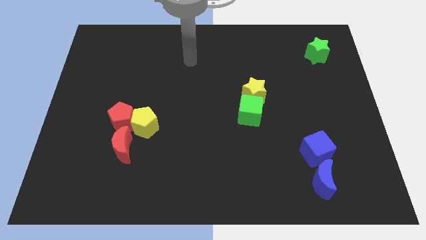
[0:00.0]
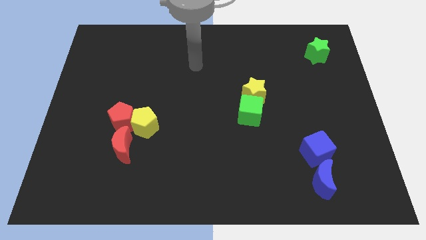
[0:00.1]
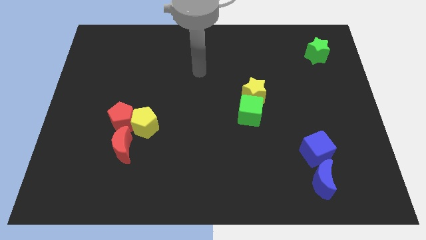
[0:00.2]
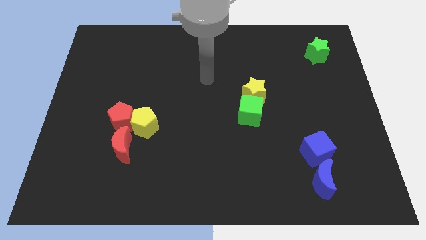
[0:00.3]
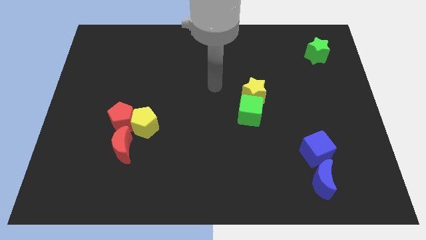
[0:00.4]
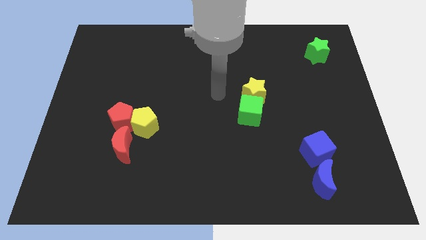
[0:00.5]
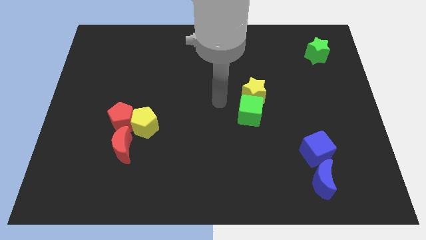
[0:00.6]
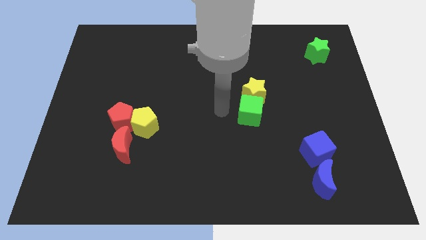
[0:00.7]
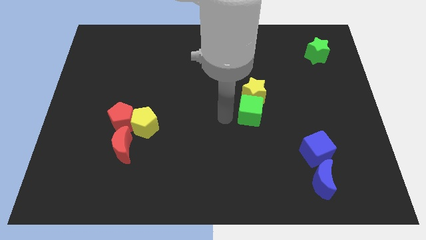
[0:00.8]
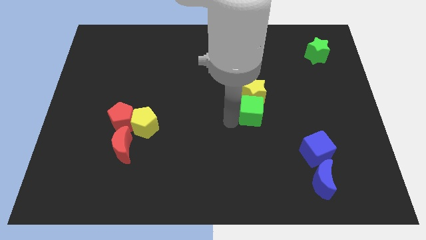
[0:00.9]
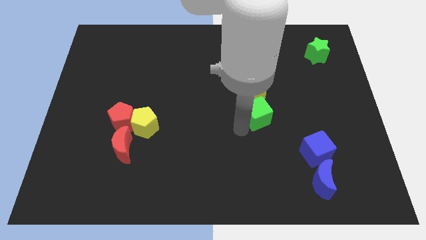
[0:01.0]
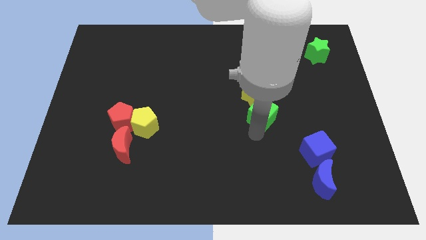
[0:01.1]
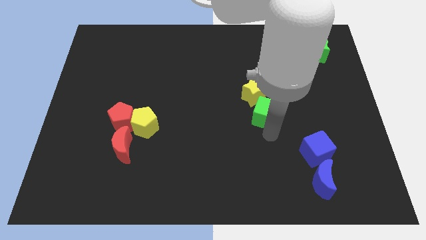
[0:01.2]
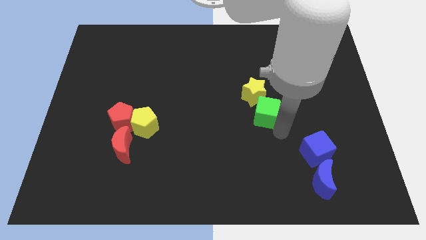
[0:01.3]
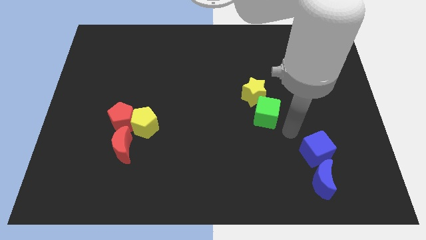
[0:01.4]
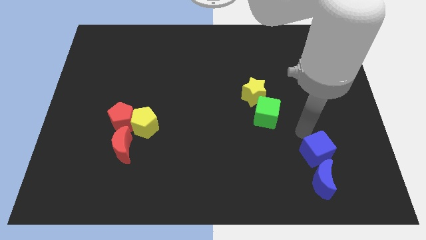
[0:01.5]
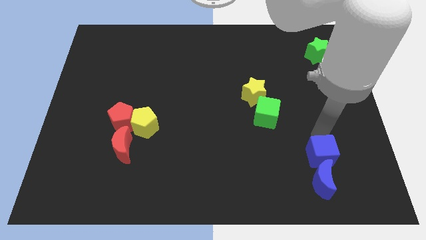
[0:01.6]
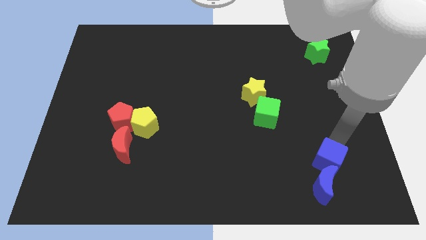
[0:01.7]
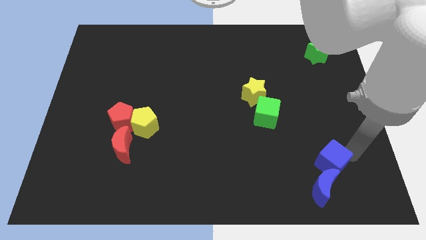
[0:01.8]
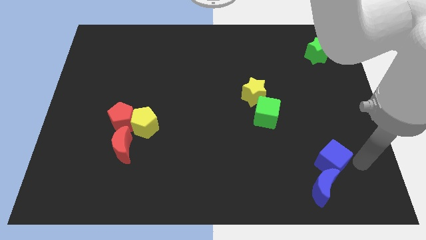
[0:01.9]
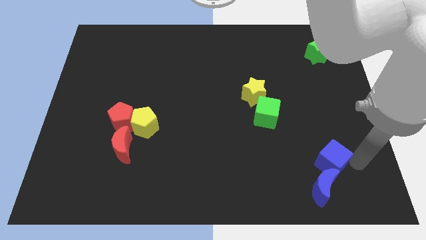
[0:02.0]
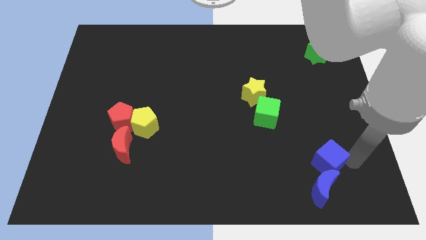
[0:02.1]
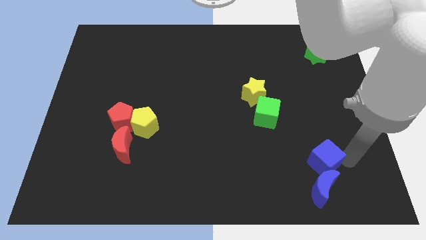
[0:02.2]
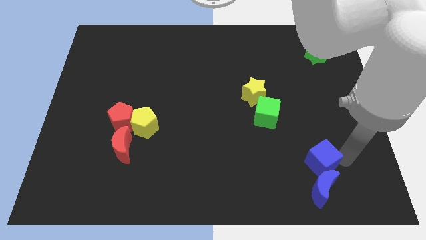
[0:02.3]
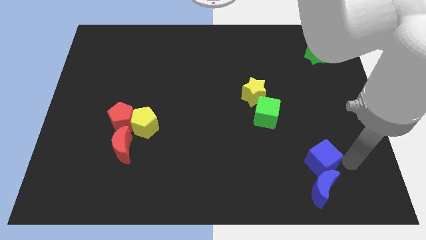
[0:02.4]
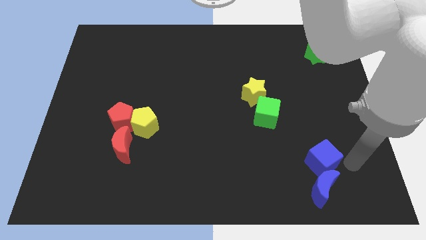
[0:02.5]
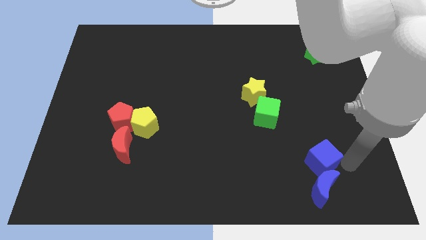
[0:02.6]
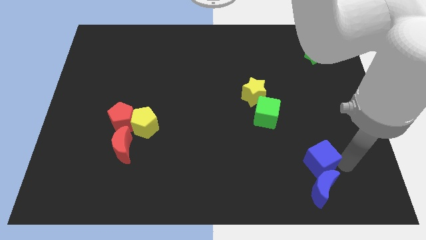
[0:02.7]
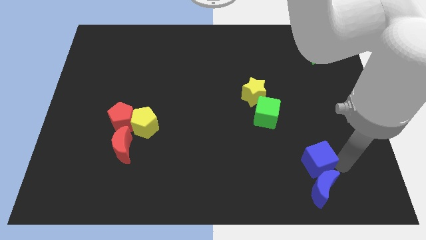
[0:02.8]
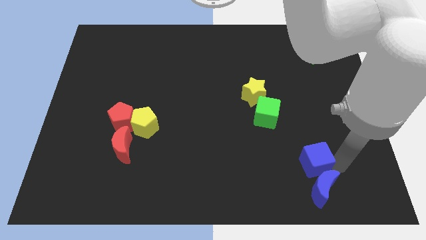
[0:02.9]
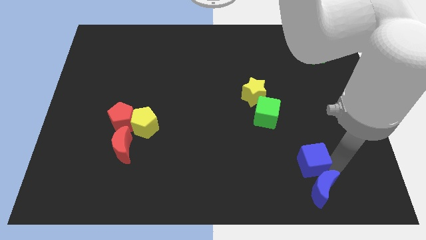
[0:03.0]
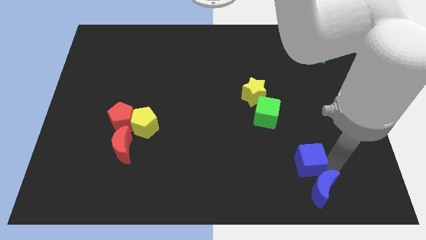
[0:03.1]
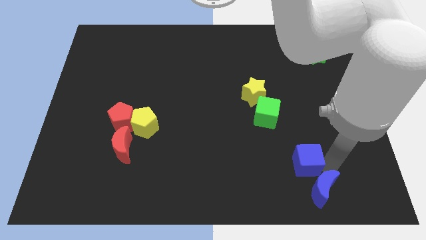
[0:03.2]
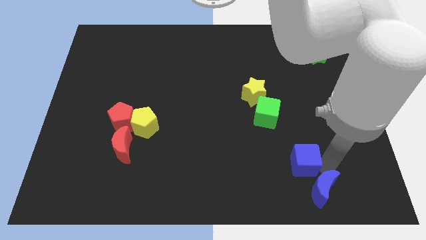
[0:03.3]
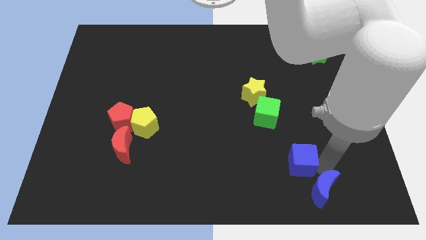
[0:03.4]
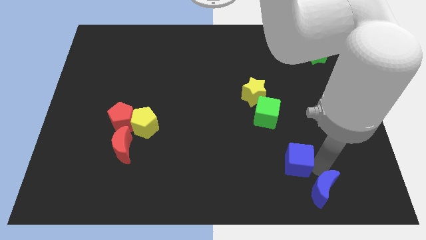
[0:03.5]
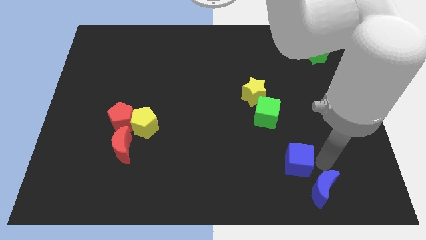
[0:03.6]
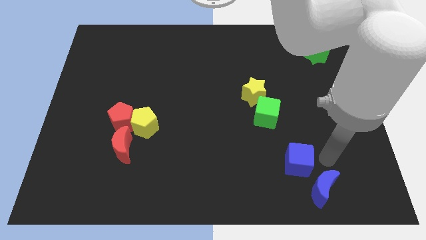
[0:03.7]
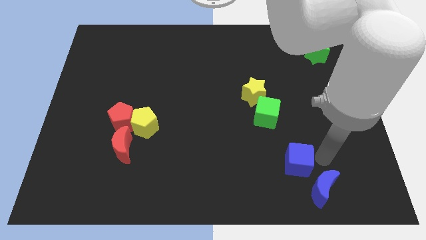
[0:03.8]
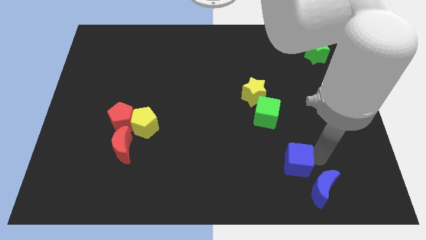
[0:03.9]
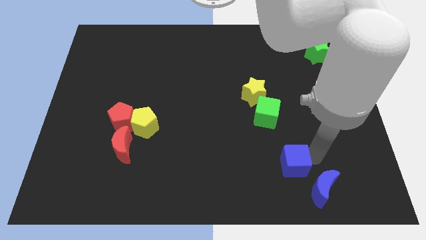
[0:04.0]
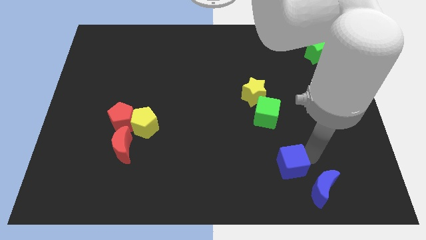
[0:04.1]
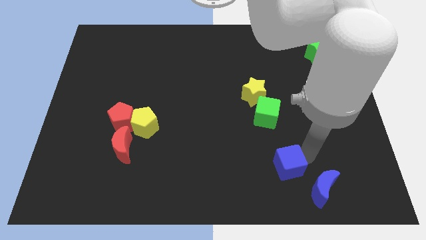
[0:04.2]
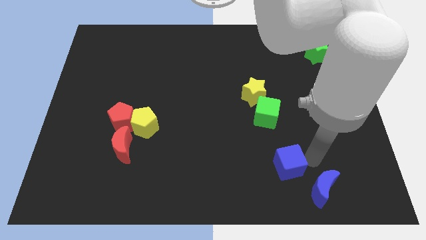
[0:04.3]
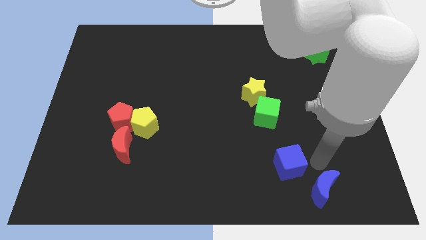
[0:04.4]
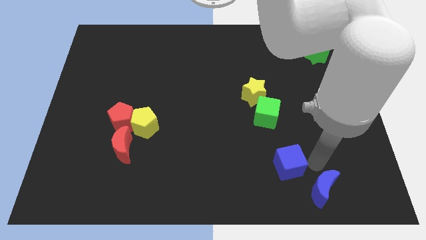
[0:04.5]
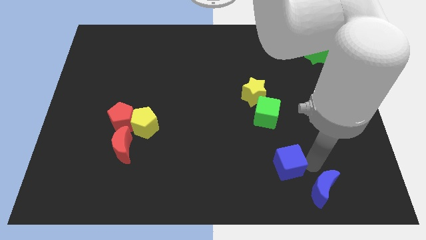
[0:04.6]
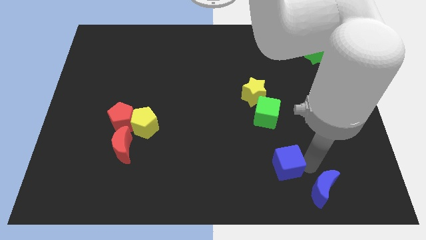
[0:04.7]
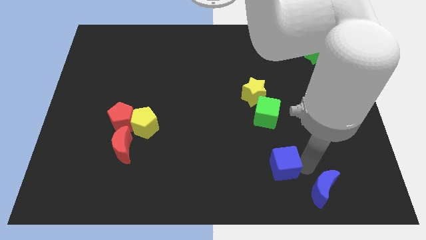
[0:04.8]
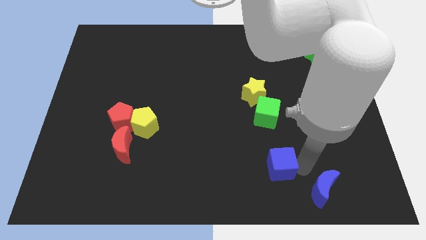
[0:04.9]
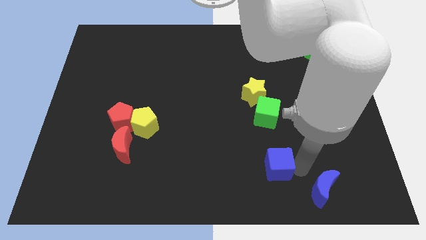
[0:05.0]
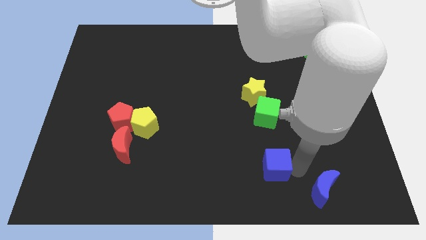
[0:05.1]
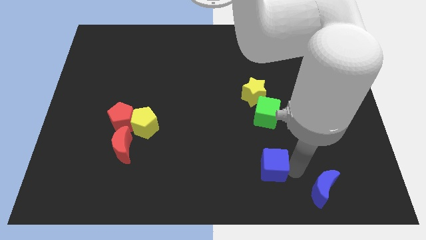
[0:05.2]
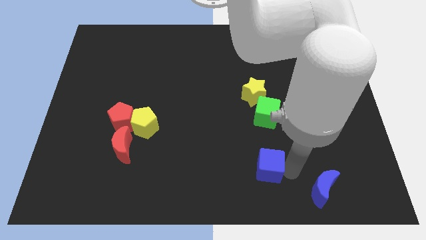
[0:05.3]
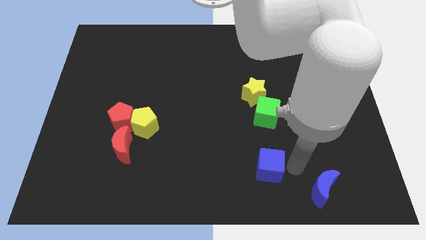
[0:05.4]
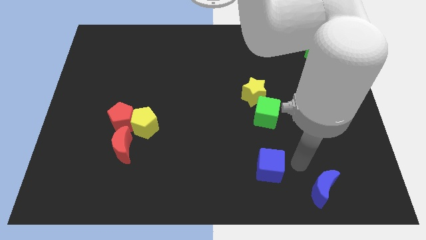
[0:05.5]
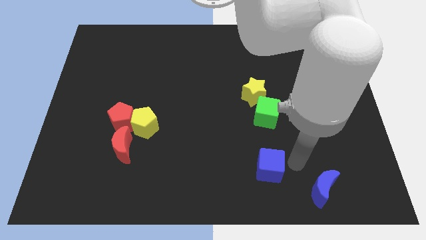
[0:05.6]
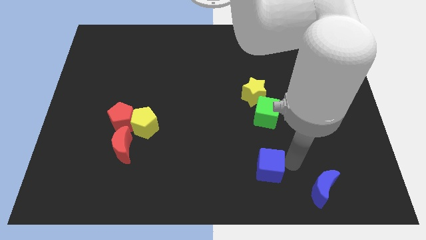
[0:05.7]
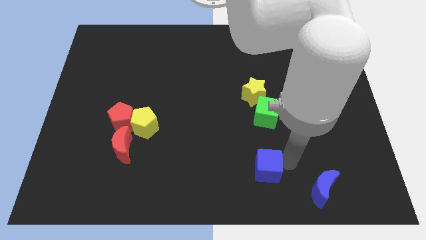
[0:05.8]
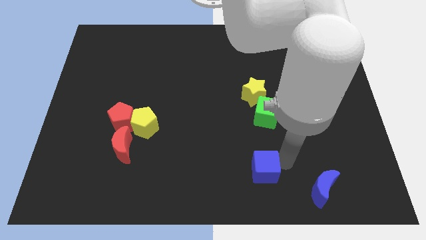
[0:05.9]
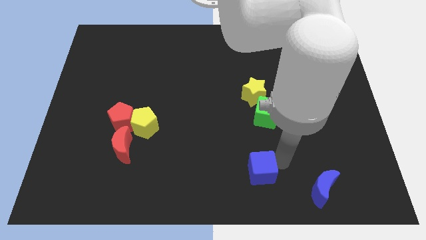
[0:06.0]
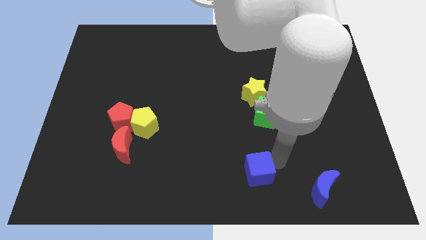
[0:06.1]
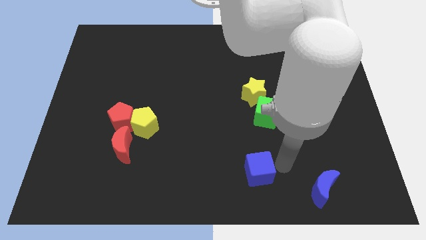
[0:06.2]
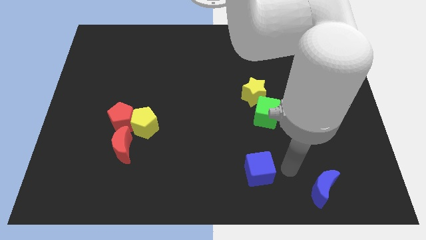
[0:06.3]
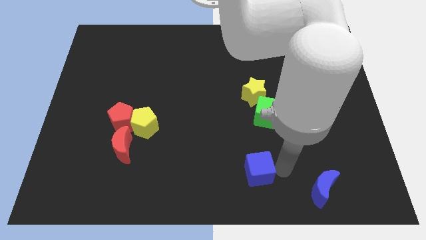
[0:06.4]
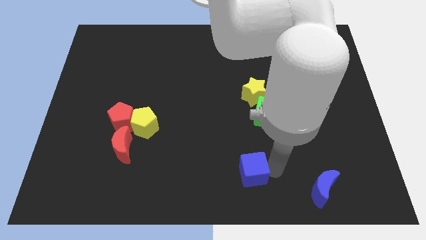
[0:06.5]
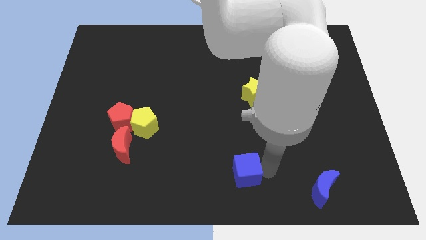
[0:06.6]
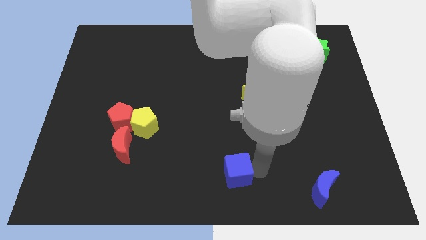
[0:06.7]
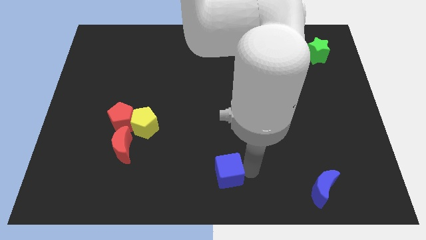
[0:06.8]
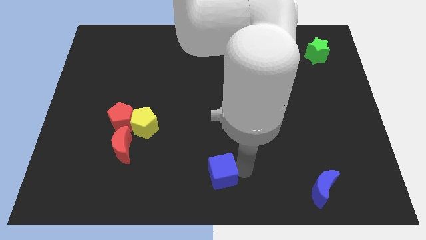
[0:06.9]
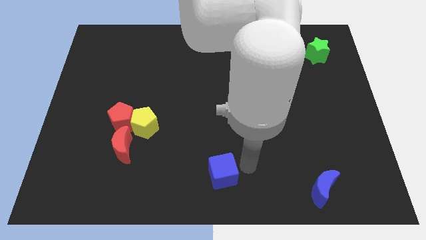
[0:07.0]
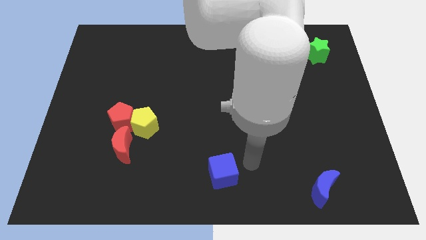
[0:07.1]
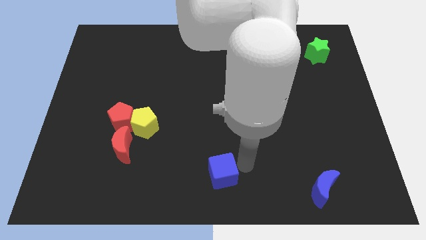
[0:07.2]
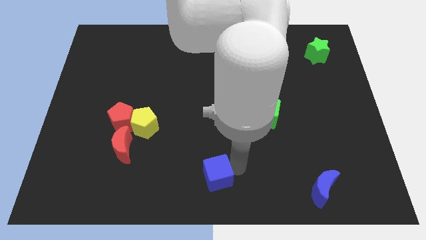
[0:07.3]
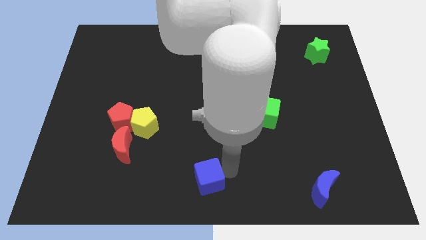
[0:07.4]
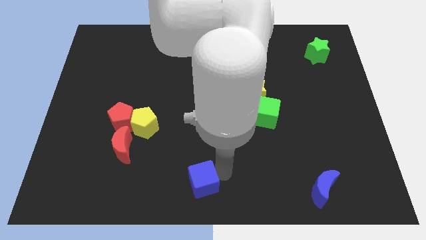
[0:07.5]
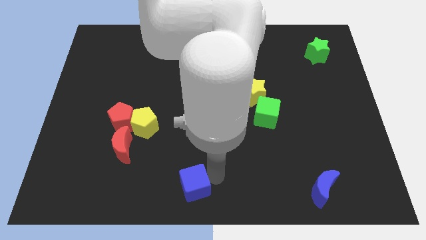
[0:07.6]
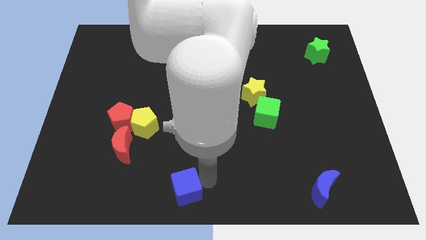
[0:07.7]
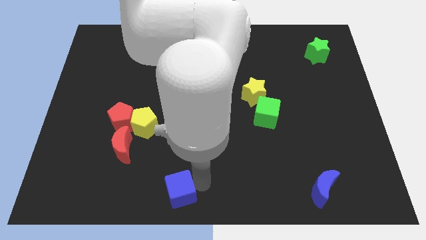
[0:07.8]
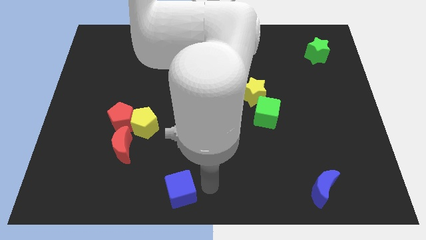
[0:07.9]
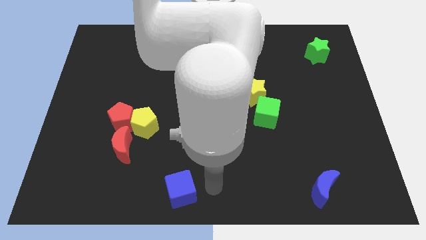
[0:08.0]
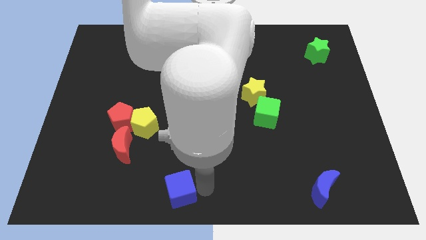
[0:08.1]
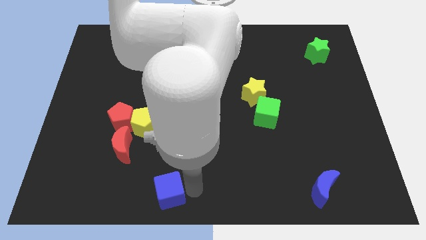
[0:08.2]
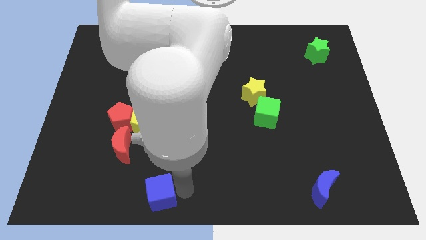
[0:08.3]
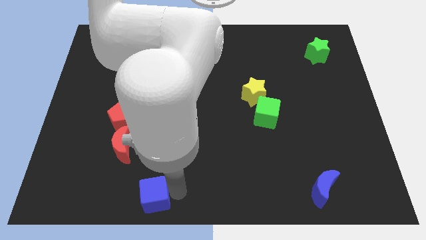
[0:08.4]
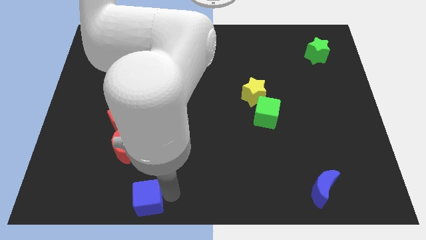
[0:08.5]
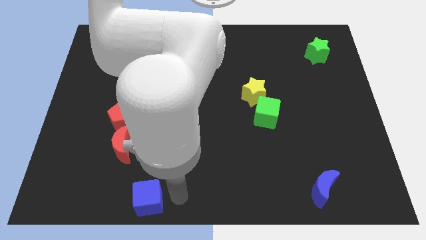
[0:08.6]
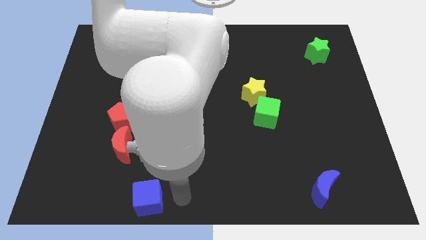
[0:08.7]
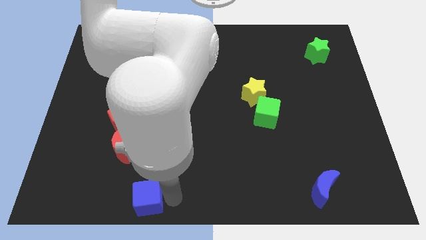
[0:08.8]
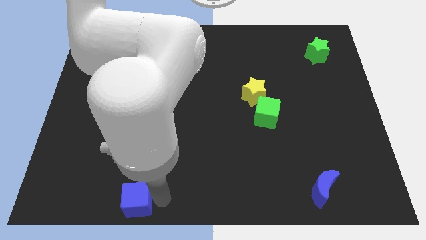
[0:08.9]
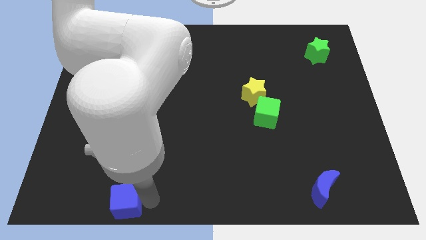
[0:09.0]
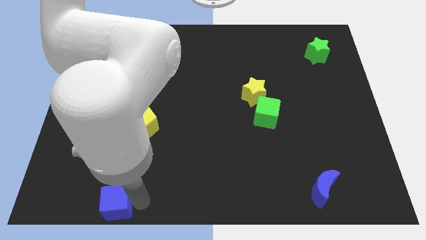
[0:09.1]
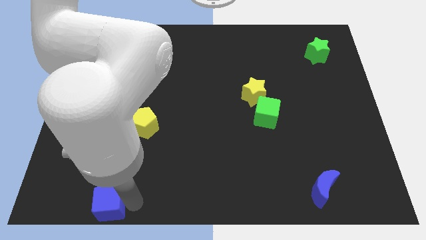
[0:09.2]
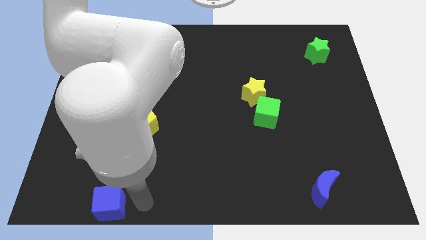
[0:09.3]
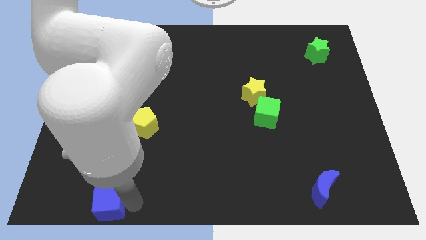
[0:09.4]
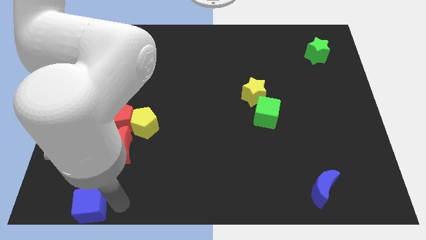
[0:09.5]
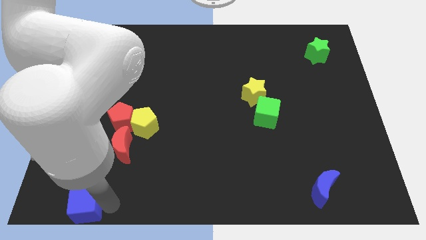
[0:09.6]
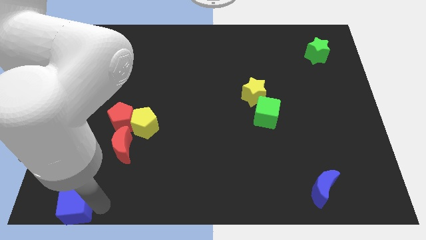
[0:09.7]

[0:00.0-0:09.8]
move the blue cube to the bottom left corner
